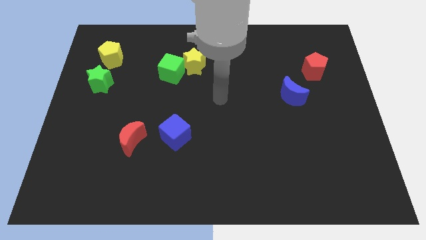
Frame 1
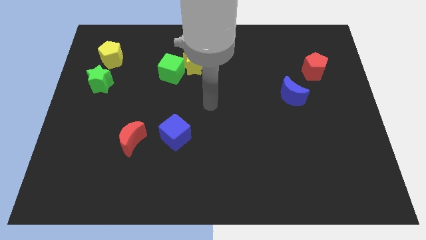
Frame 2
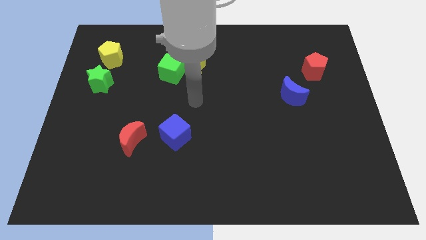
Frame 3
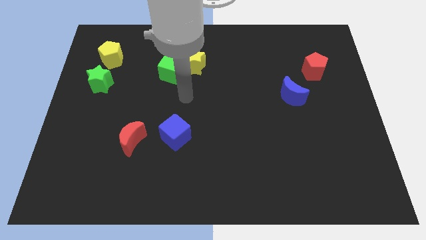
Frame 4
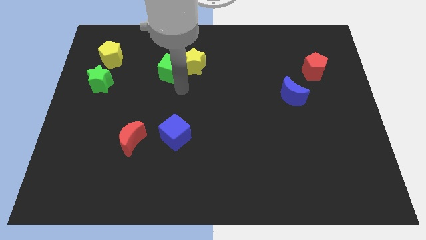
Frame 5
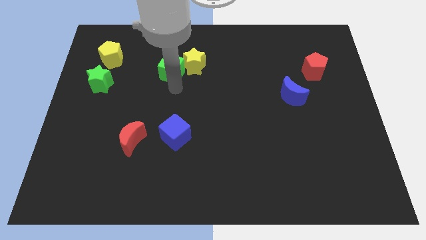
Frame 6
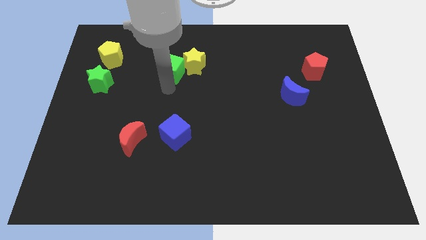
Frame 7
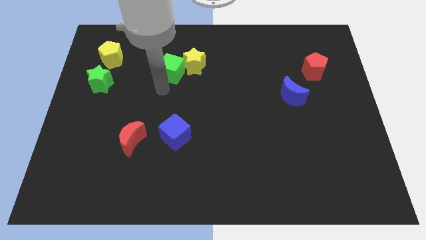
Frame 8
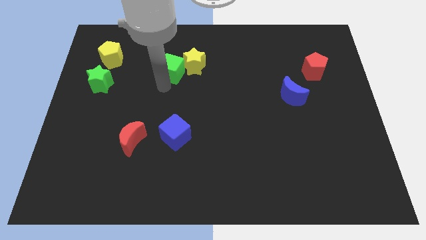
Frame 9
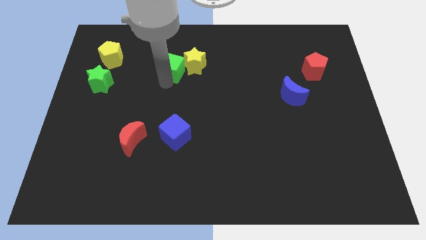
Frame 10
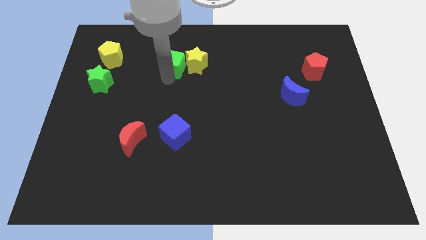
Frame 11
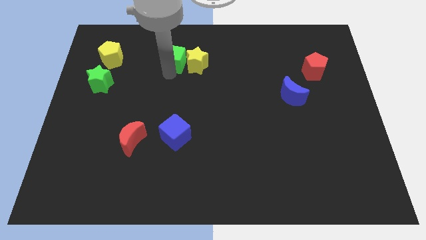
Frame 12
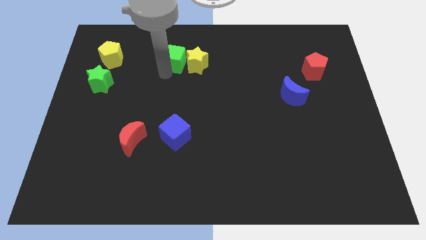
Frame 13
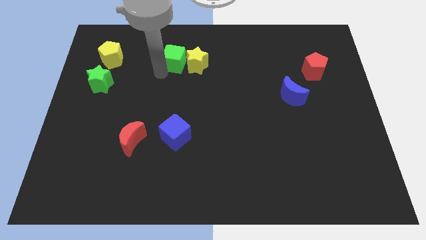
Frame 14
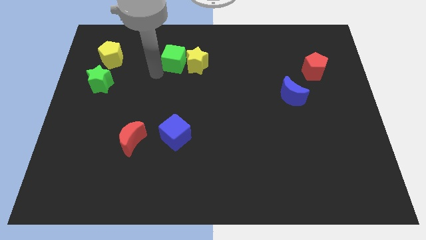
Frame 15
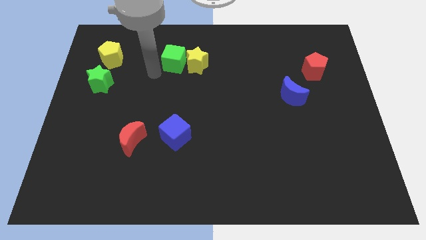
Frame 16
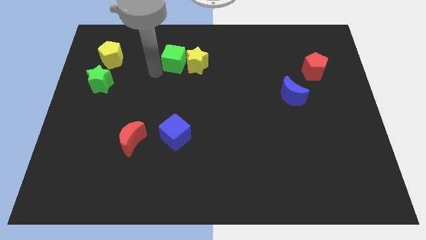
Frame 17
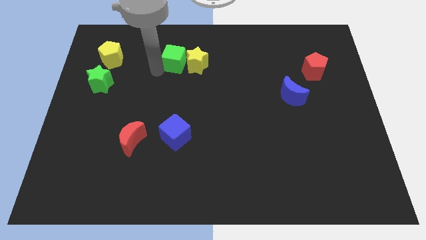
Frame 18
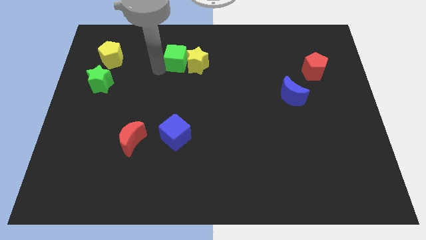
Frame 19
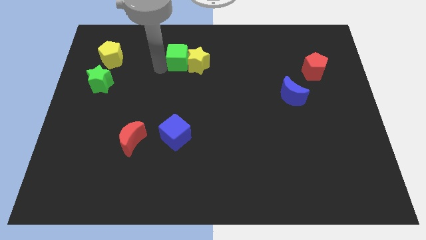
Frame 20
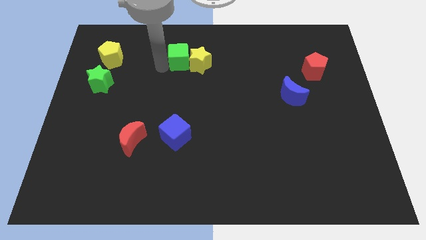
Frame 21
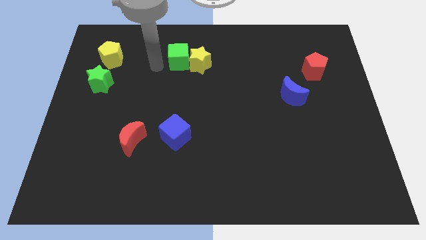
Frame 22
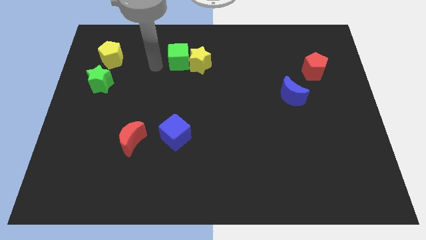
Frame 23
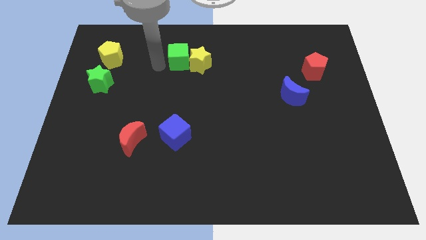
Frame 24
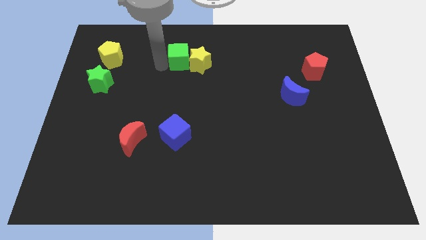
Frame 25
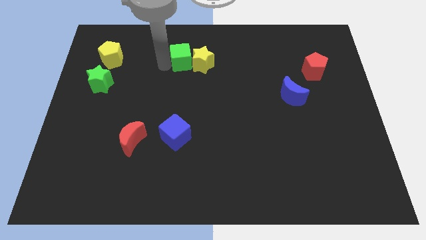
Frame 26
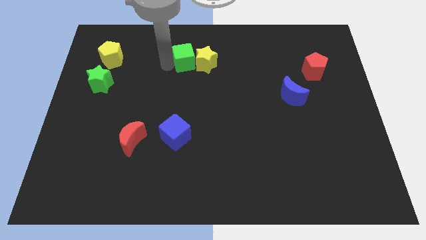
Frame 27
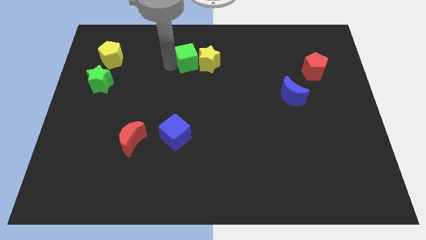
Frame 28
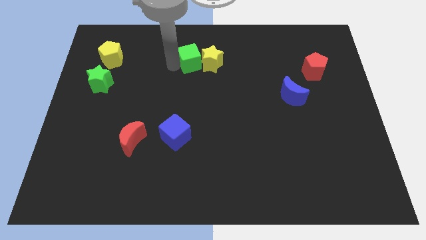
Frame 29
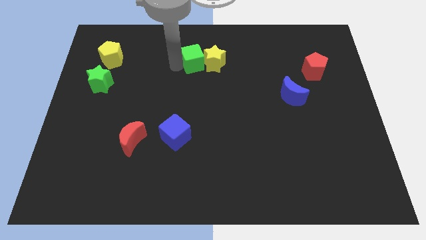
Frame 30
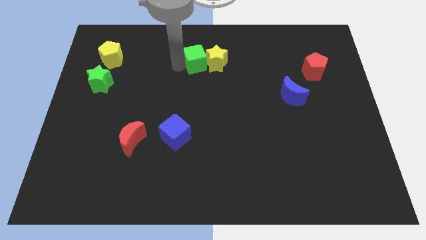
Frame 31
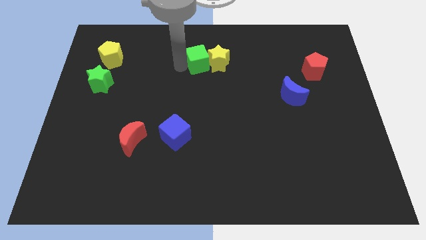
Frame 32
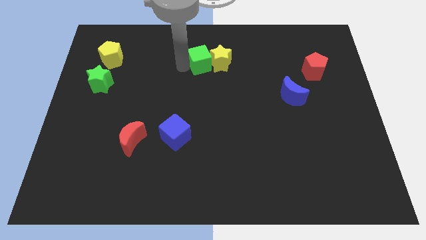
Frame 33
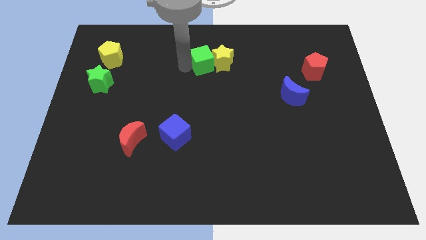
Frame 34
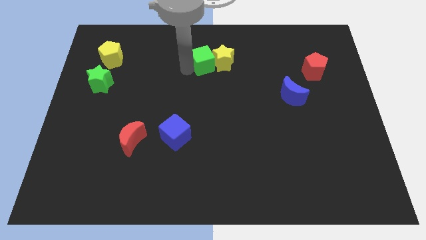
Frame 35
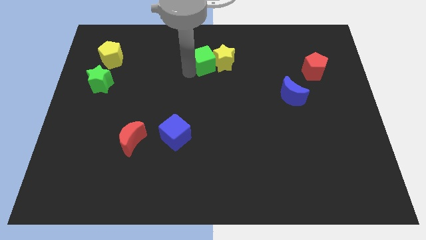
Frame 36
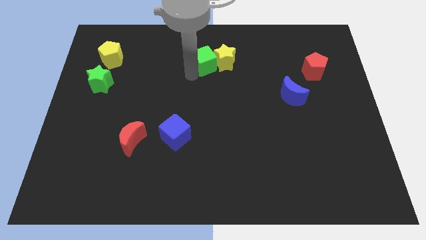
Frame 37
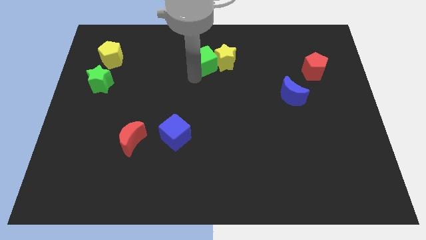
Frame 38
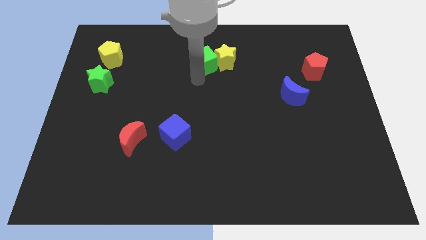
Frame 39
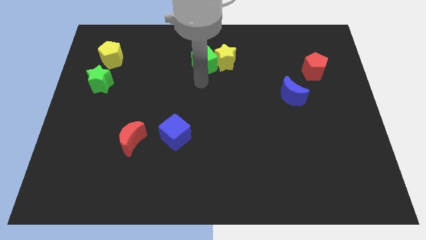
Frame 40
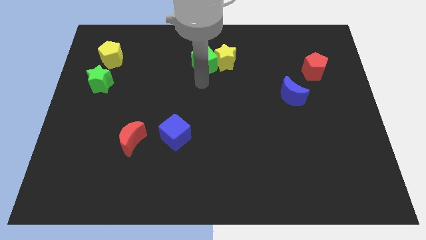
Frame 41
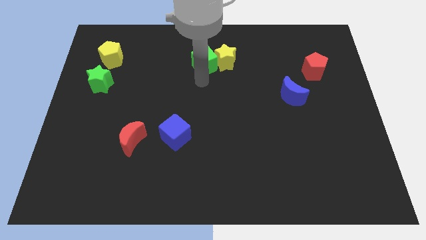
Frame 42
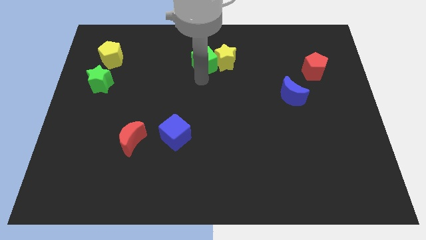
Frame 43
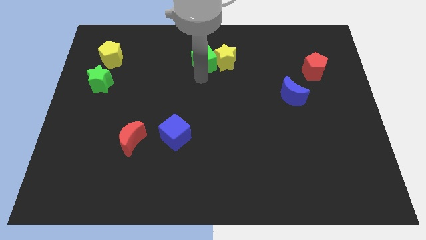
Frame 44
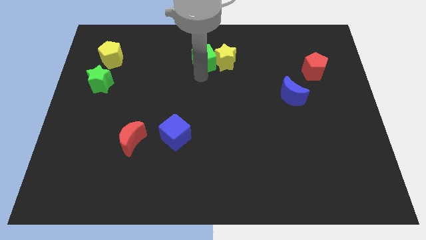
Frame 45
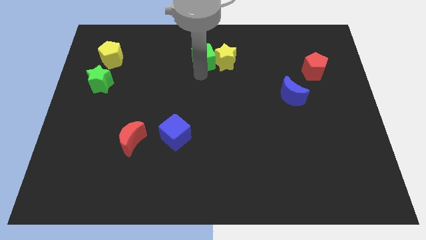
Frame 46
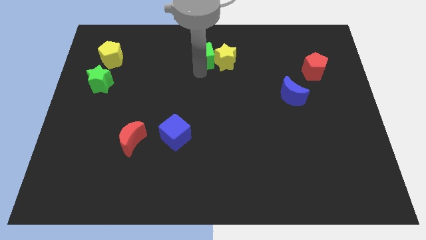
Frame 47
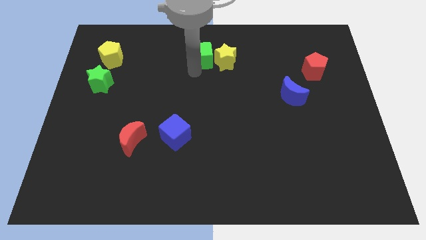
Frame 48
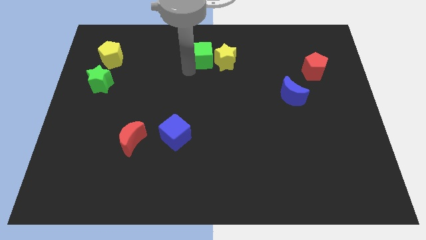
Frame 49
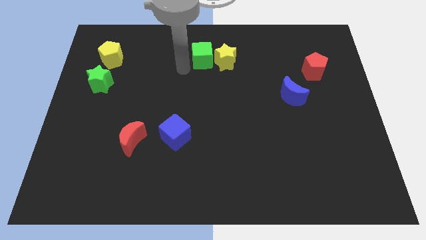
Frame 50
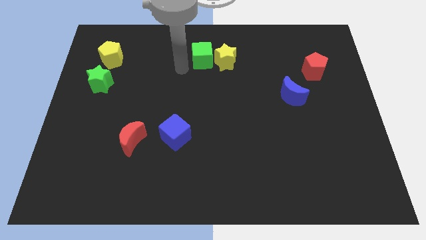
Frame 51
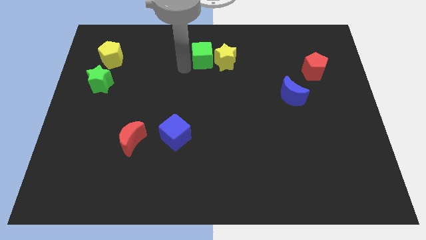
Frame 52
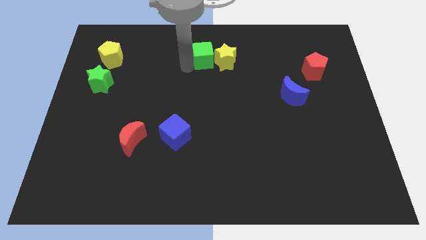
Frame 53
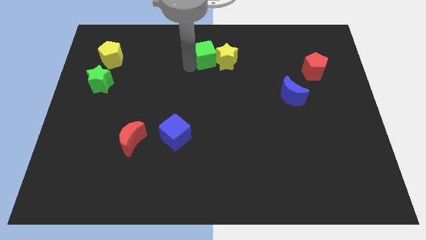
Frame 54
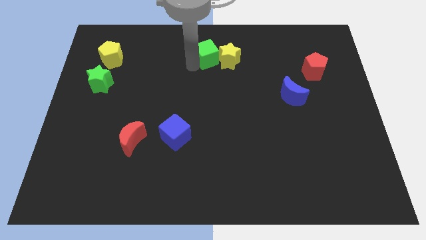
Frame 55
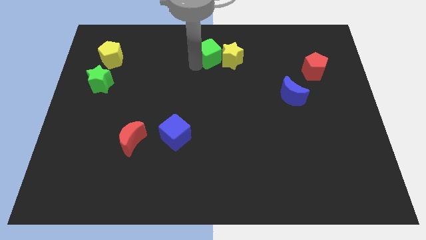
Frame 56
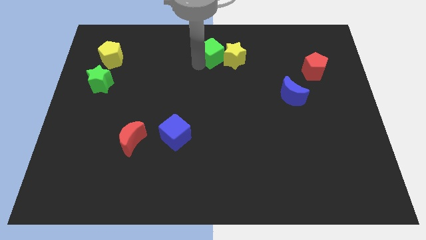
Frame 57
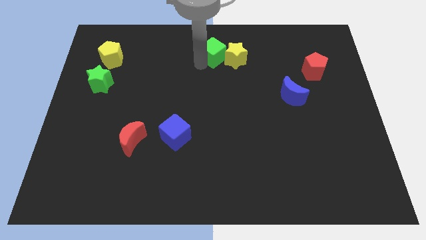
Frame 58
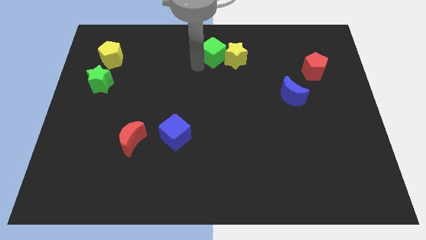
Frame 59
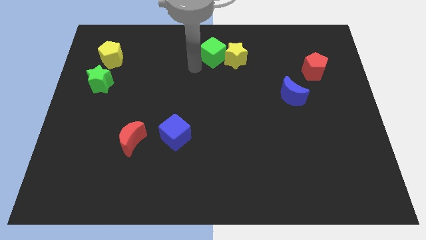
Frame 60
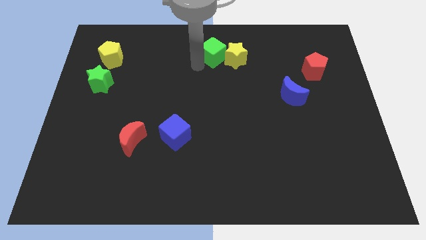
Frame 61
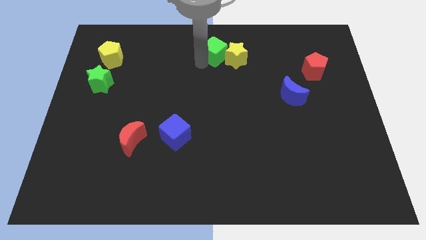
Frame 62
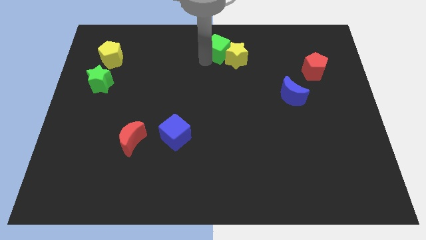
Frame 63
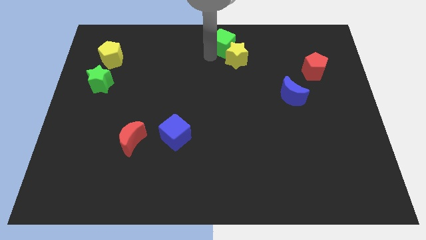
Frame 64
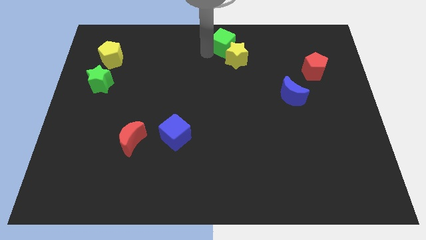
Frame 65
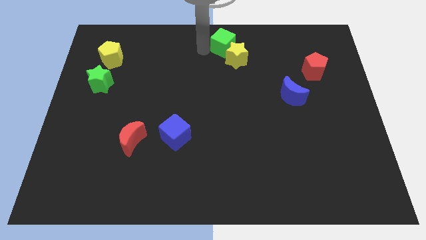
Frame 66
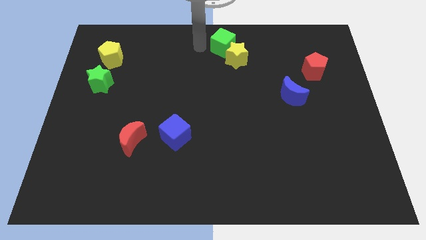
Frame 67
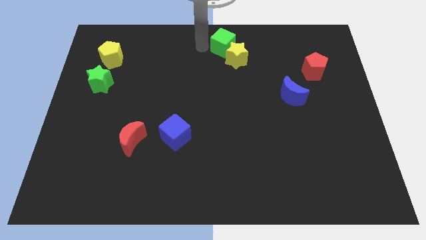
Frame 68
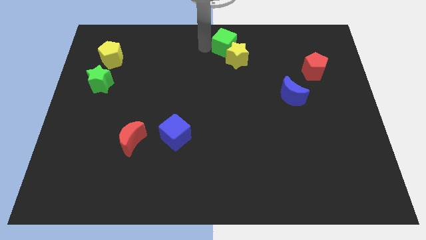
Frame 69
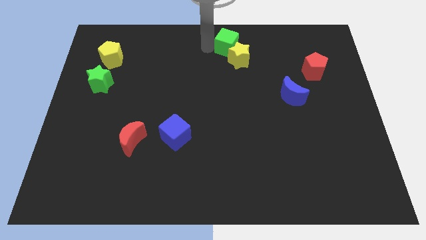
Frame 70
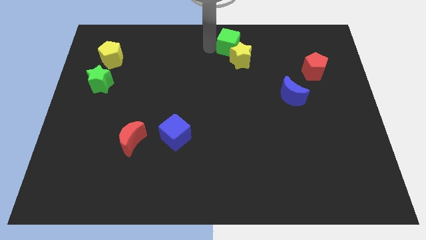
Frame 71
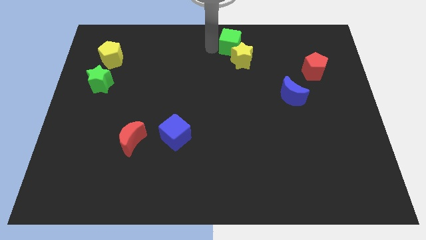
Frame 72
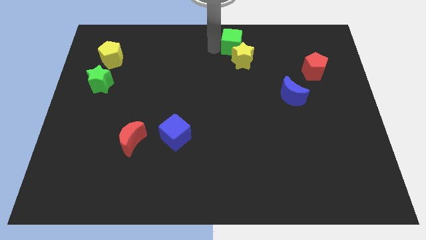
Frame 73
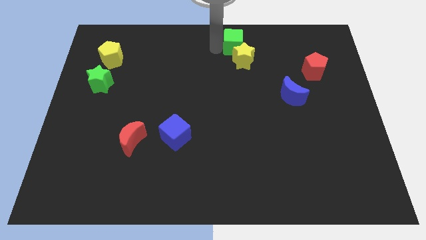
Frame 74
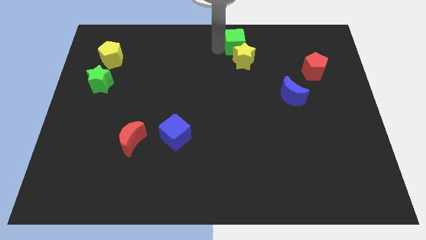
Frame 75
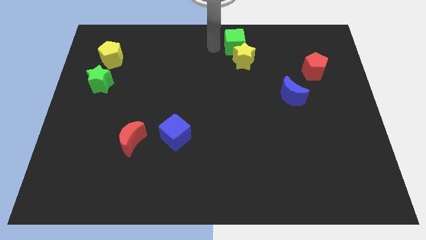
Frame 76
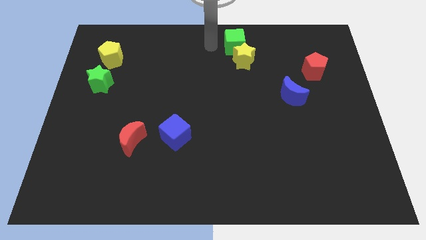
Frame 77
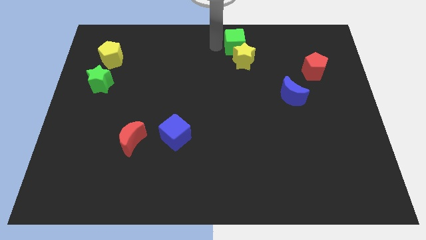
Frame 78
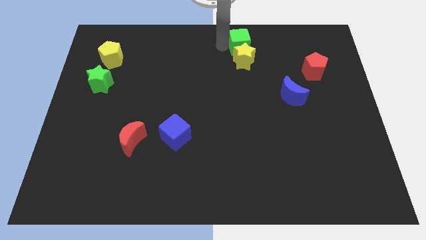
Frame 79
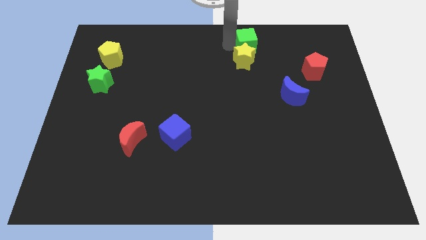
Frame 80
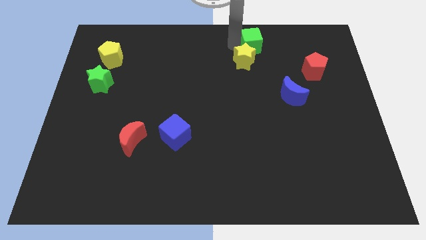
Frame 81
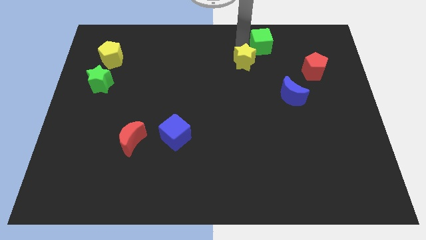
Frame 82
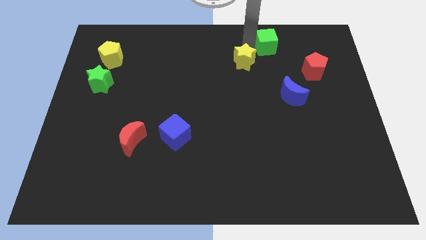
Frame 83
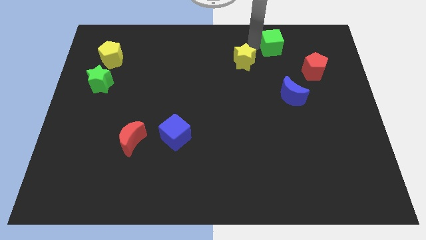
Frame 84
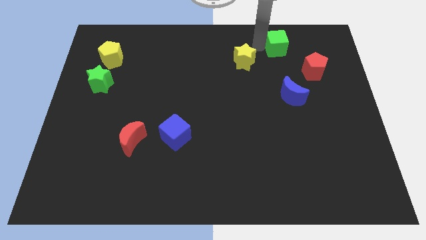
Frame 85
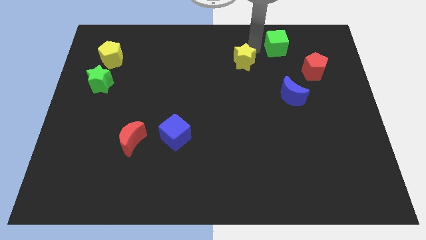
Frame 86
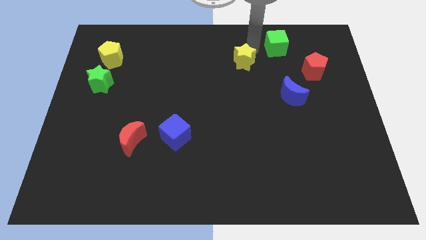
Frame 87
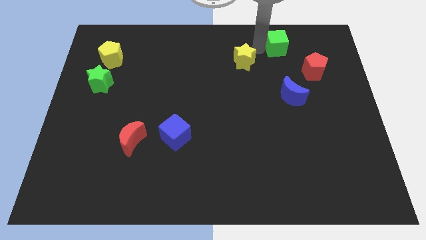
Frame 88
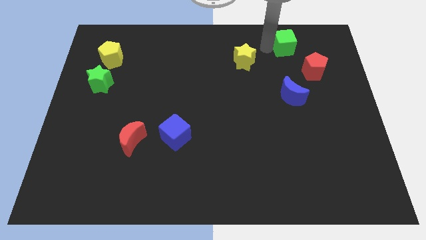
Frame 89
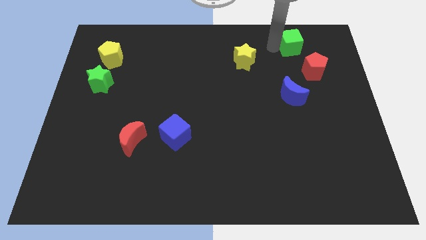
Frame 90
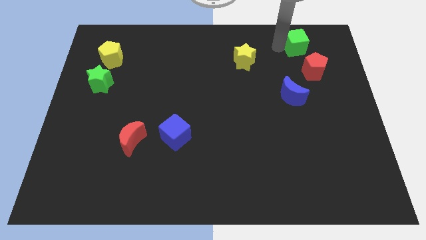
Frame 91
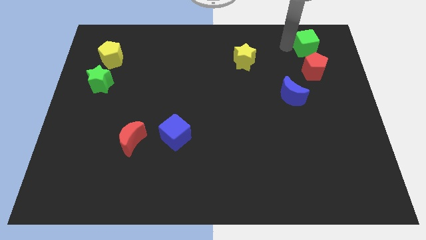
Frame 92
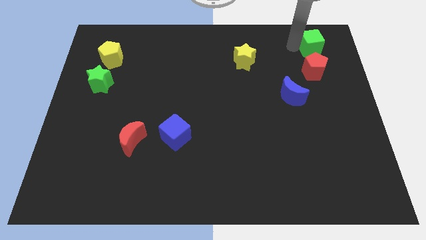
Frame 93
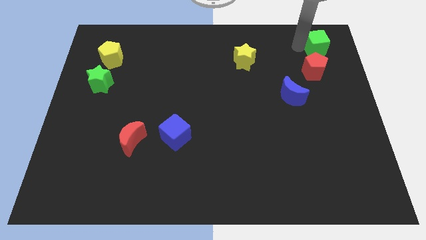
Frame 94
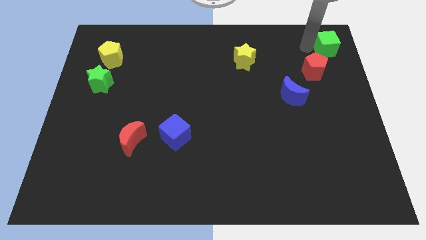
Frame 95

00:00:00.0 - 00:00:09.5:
put the green cube to the top right corner
